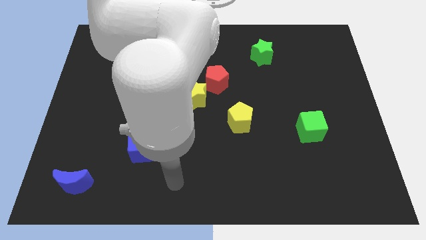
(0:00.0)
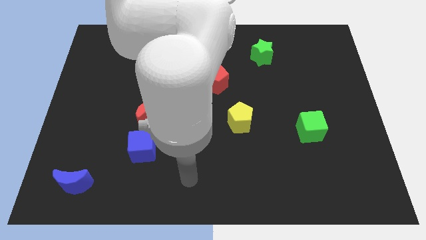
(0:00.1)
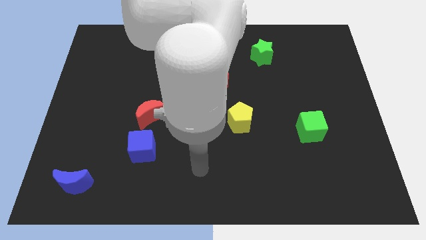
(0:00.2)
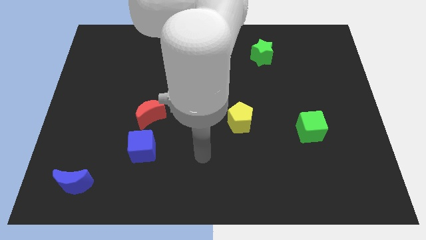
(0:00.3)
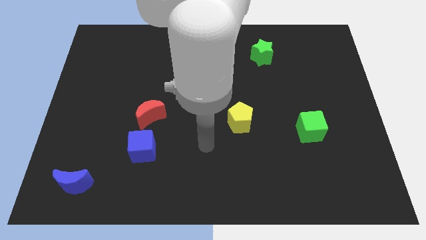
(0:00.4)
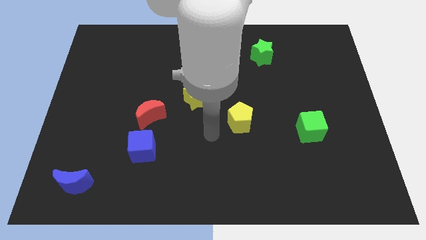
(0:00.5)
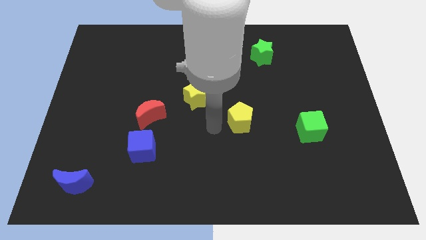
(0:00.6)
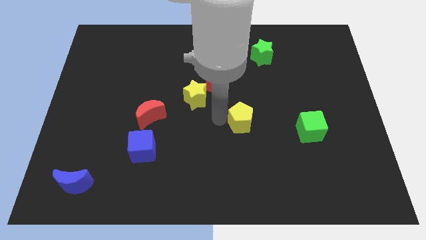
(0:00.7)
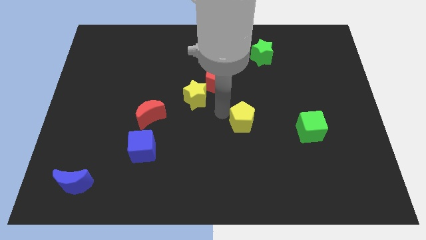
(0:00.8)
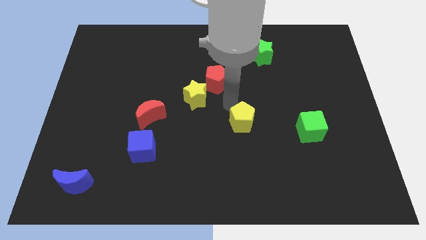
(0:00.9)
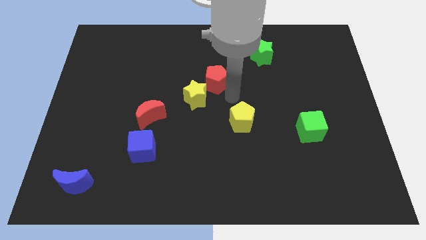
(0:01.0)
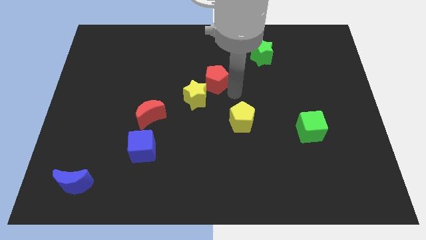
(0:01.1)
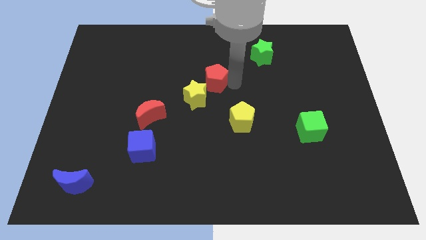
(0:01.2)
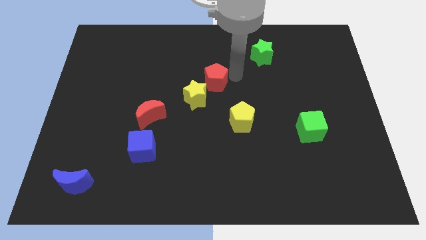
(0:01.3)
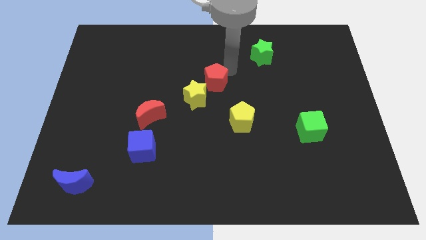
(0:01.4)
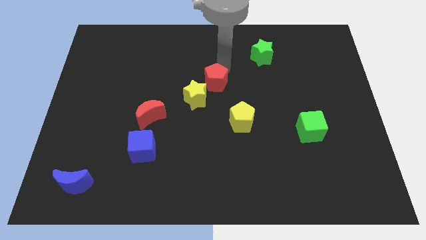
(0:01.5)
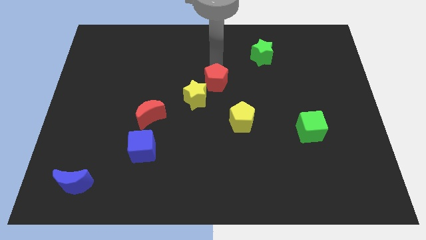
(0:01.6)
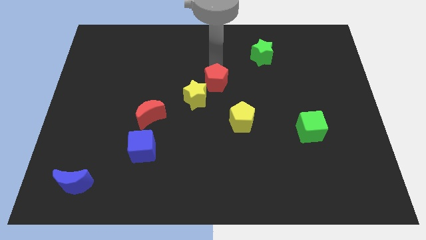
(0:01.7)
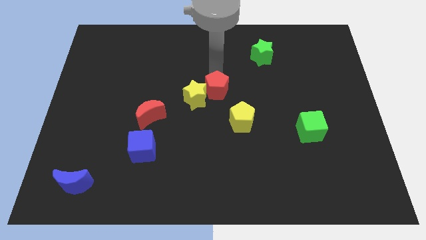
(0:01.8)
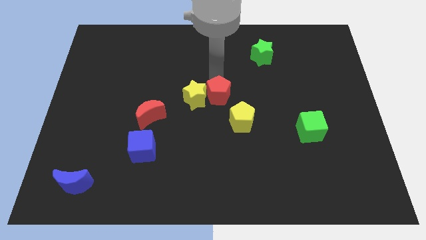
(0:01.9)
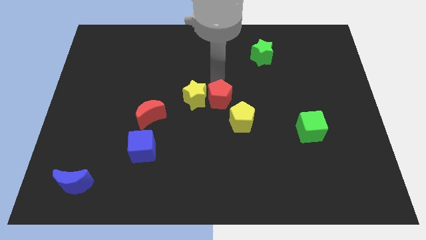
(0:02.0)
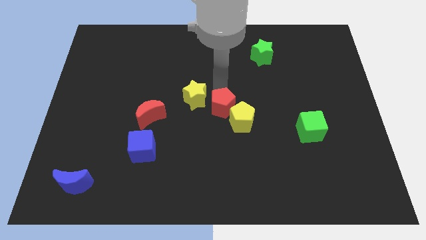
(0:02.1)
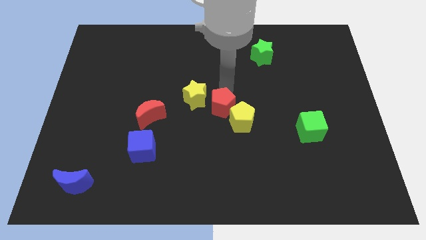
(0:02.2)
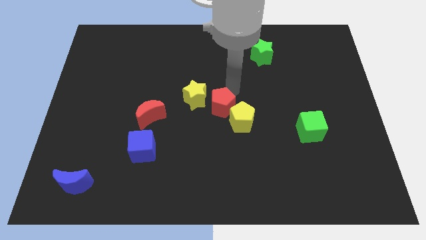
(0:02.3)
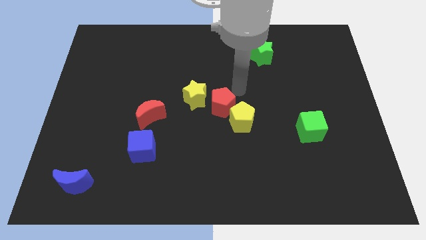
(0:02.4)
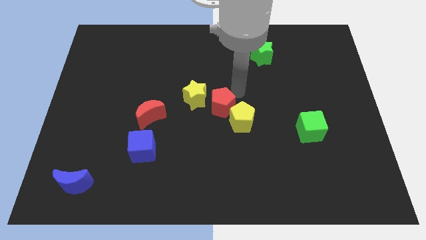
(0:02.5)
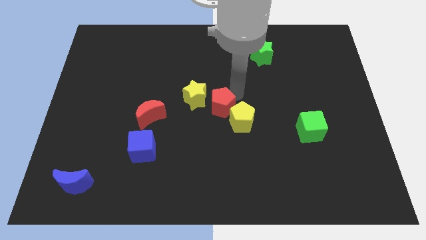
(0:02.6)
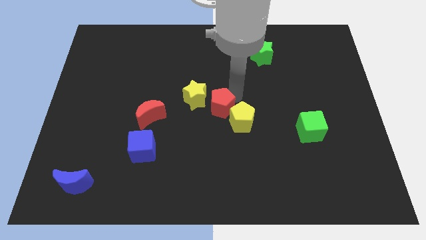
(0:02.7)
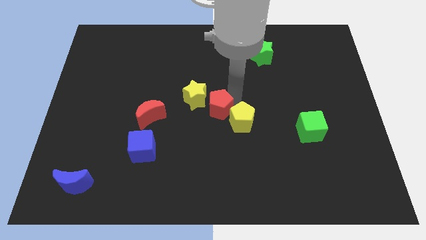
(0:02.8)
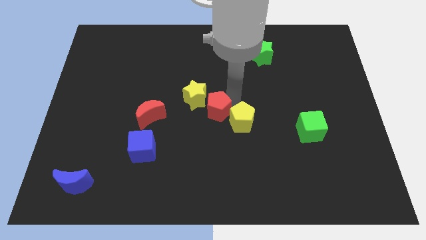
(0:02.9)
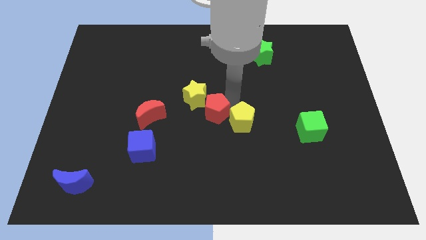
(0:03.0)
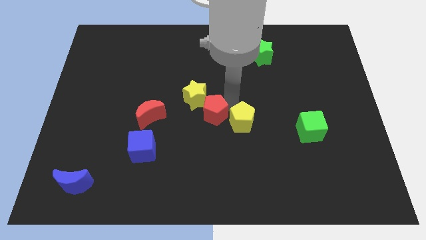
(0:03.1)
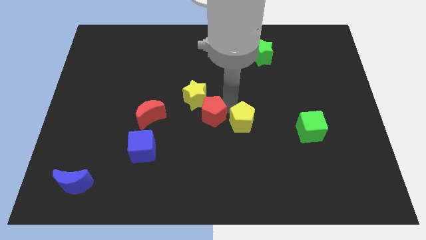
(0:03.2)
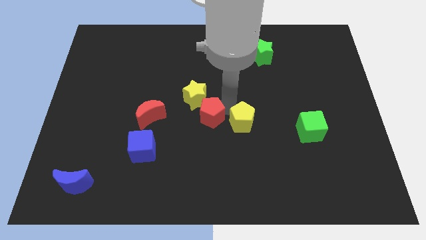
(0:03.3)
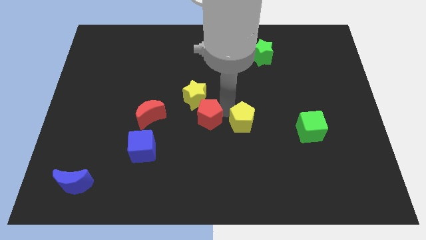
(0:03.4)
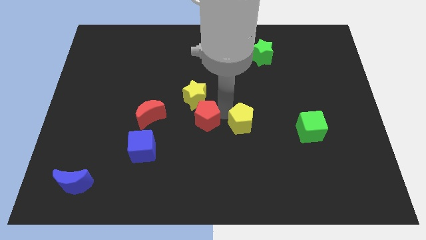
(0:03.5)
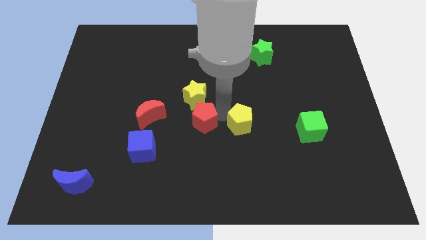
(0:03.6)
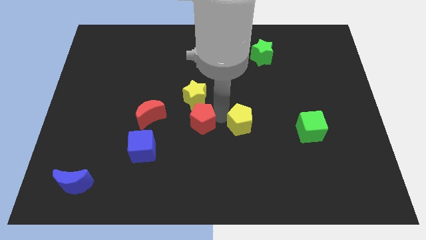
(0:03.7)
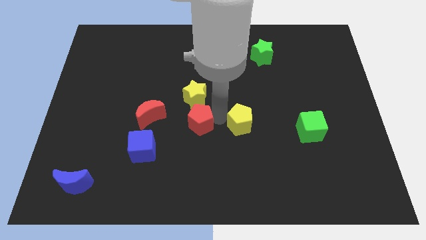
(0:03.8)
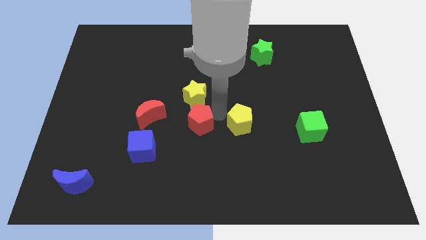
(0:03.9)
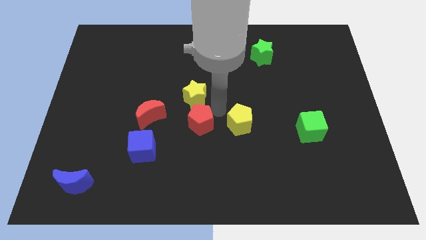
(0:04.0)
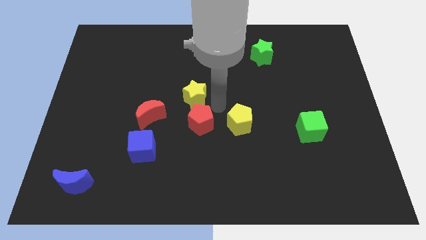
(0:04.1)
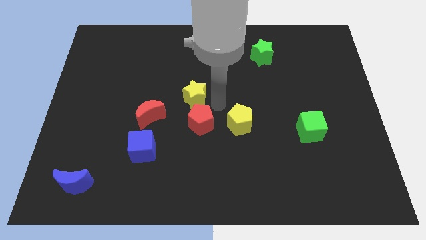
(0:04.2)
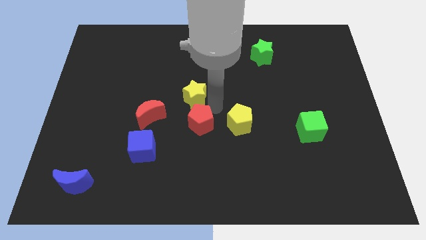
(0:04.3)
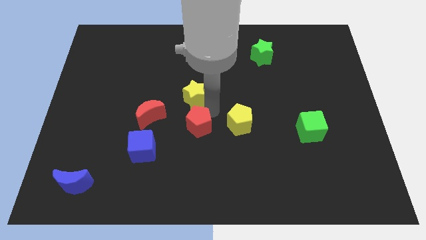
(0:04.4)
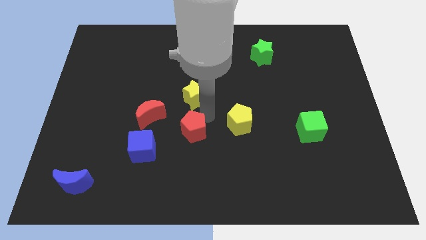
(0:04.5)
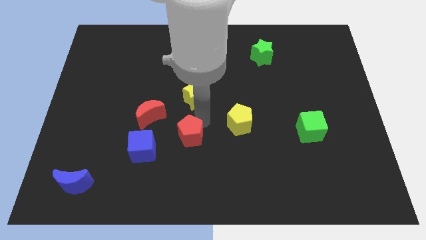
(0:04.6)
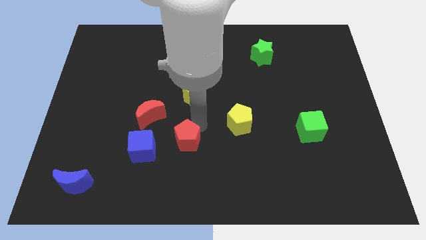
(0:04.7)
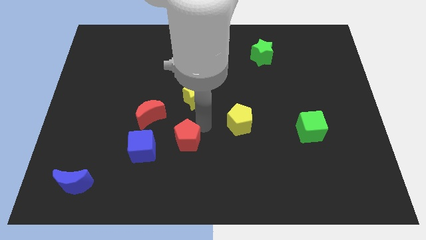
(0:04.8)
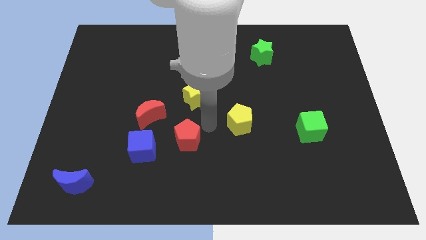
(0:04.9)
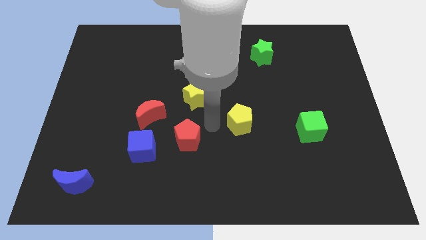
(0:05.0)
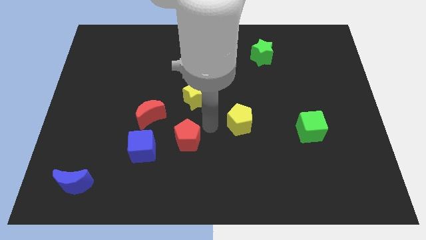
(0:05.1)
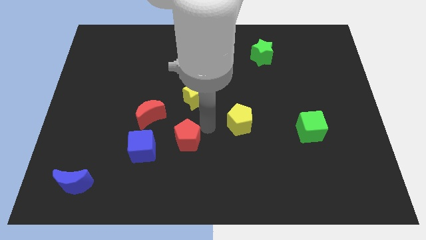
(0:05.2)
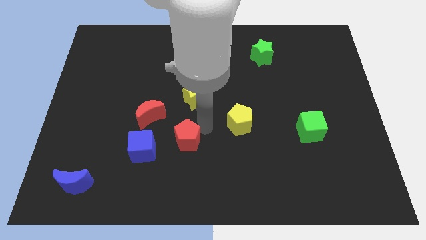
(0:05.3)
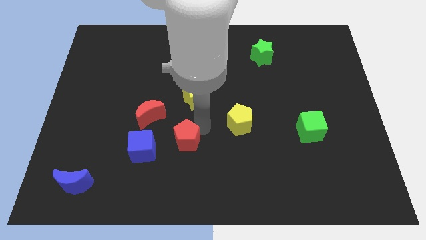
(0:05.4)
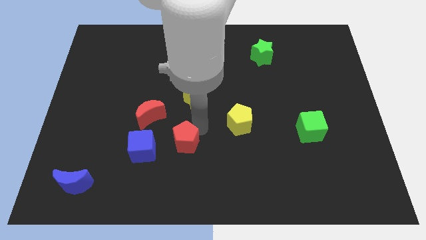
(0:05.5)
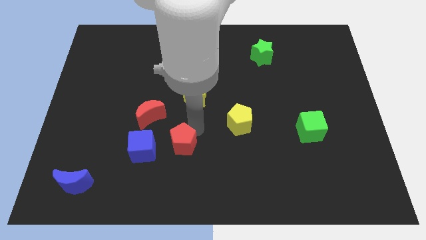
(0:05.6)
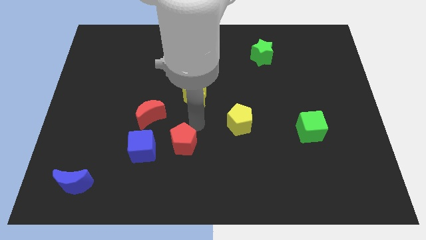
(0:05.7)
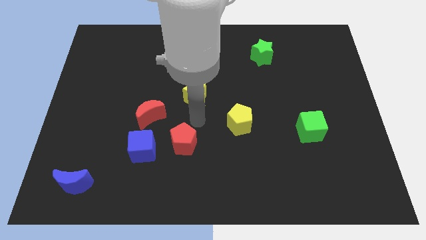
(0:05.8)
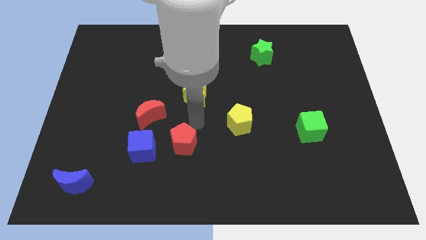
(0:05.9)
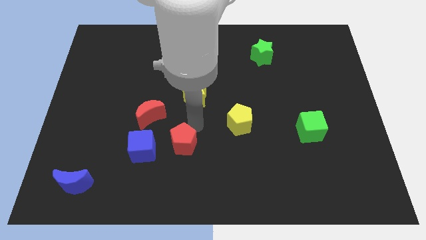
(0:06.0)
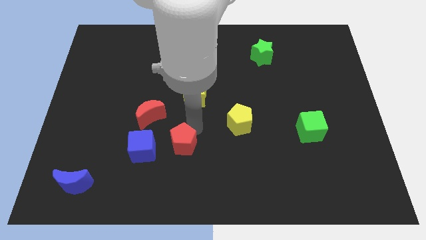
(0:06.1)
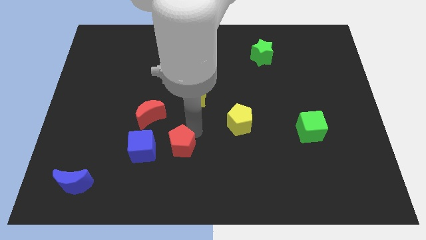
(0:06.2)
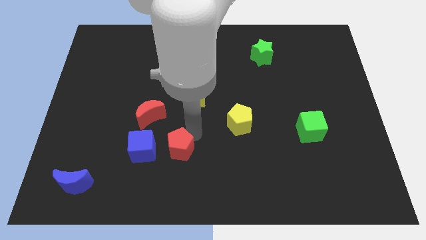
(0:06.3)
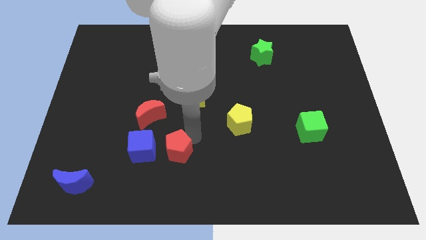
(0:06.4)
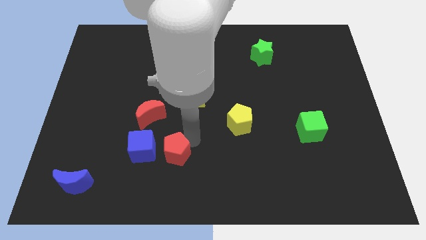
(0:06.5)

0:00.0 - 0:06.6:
push the red pentagon to the bottom right side of the blue cube
